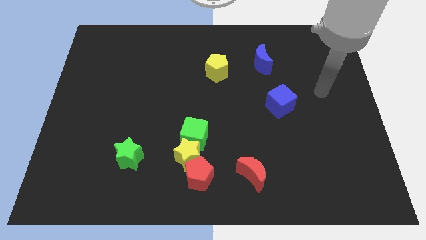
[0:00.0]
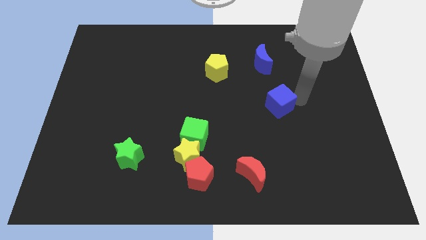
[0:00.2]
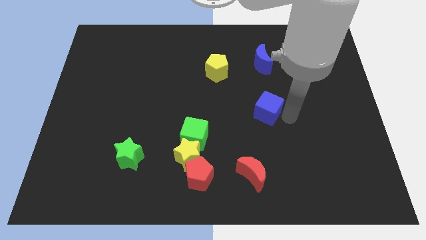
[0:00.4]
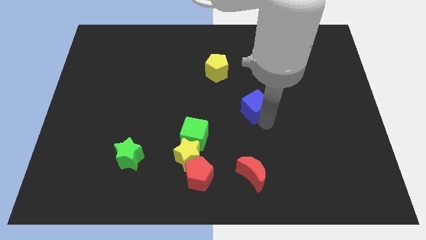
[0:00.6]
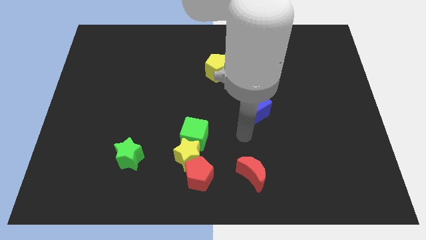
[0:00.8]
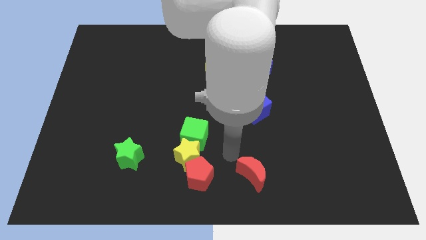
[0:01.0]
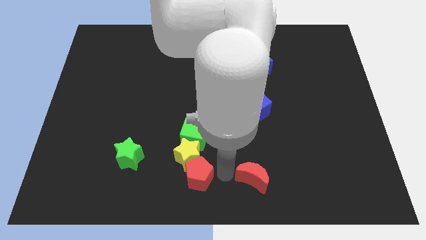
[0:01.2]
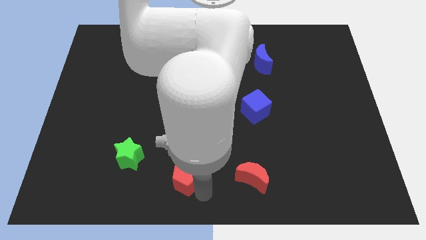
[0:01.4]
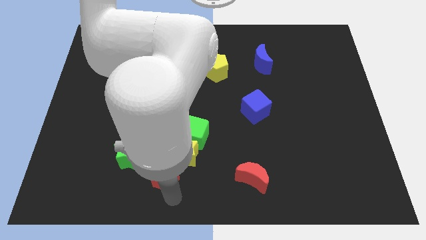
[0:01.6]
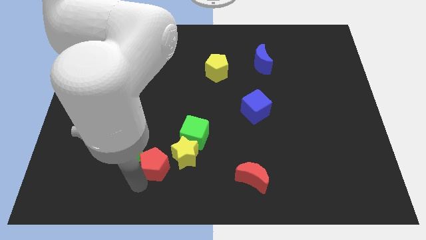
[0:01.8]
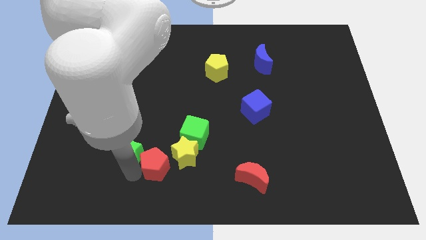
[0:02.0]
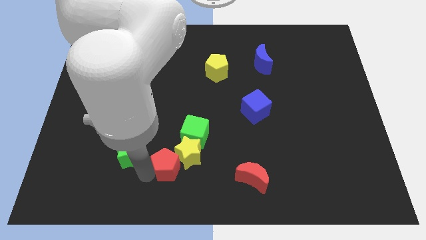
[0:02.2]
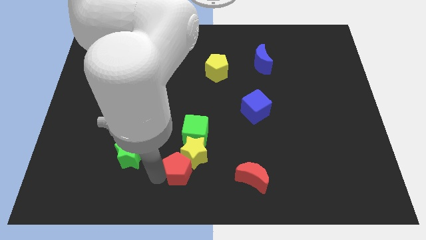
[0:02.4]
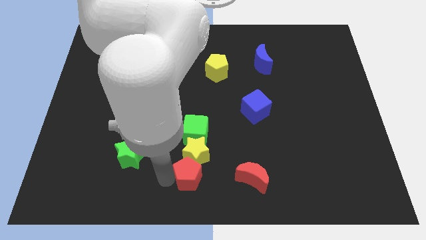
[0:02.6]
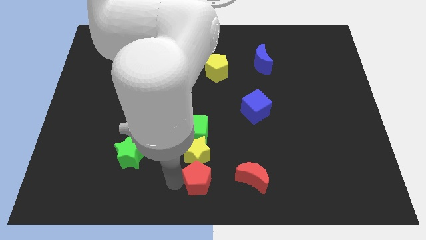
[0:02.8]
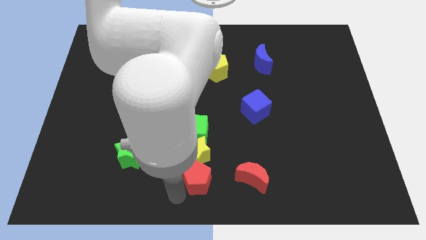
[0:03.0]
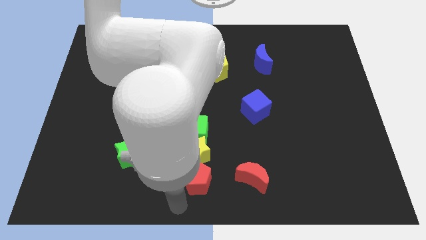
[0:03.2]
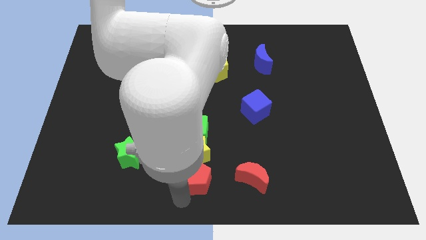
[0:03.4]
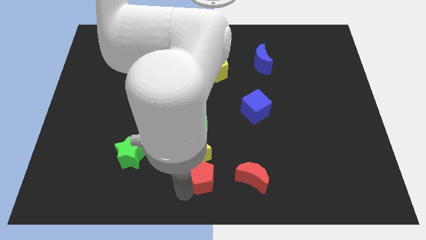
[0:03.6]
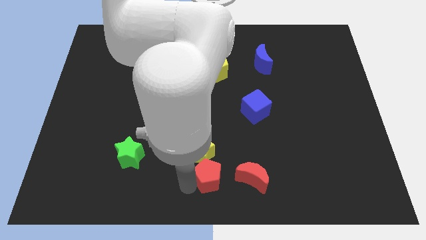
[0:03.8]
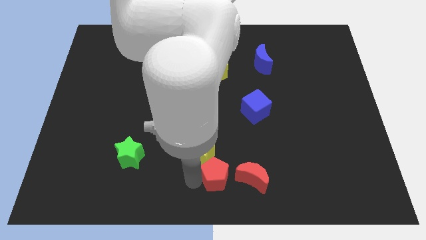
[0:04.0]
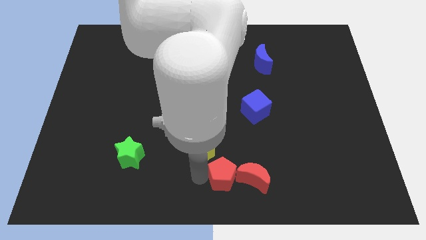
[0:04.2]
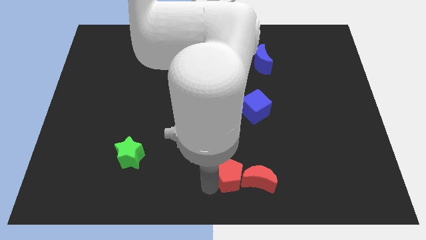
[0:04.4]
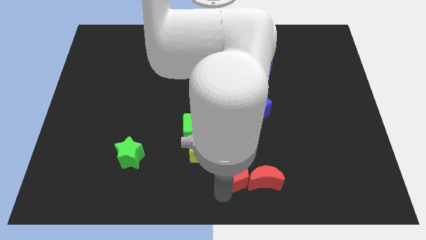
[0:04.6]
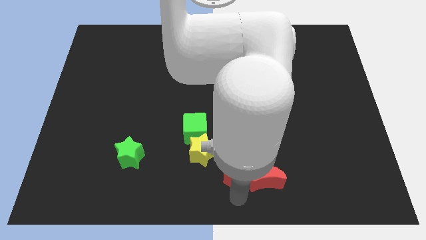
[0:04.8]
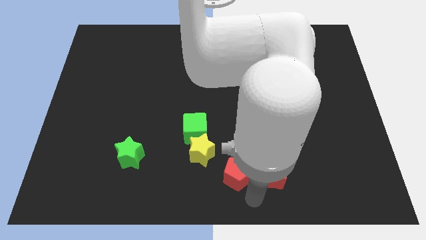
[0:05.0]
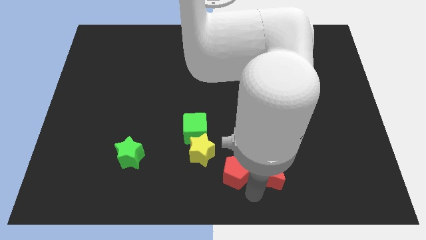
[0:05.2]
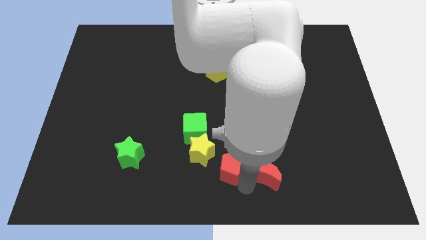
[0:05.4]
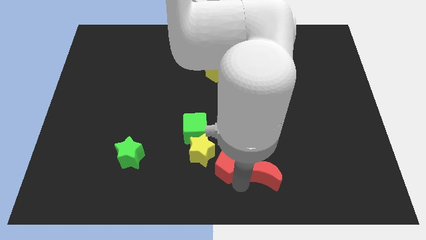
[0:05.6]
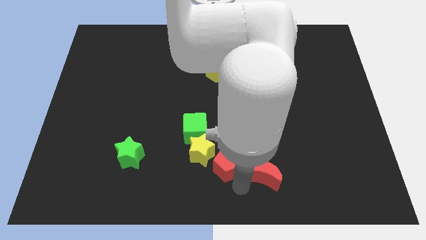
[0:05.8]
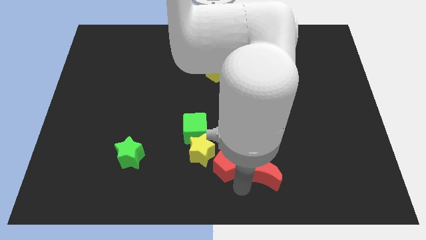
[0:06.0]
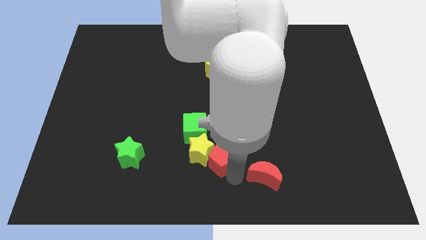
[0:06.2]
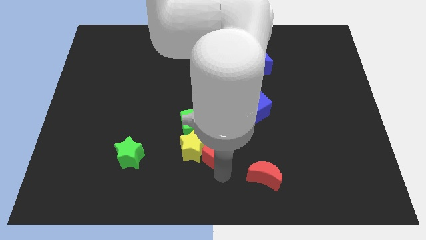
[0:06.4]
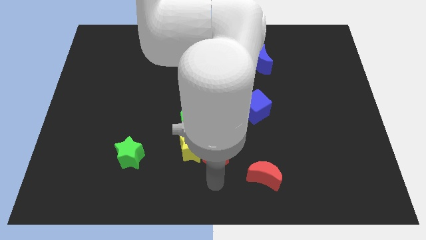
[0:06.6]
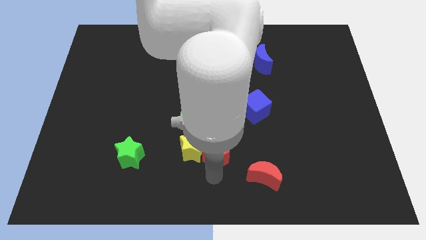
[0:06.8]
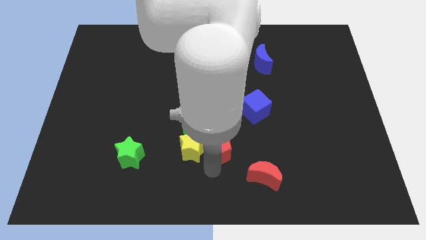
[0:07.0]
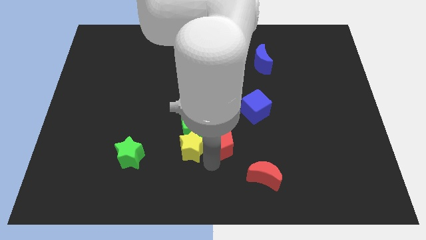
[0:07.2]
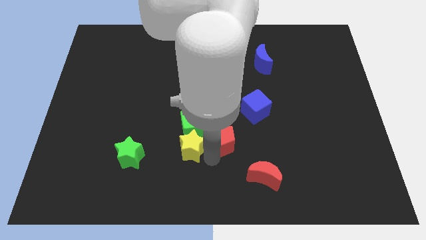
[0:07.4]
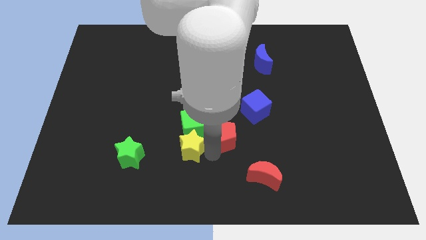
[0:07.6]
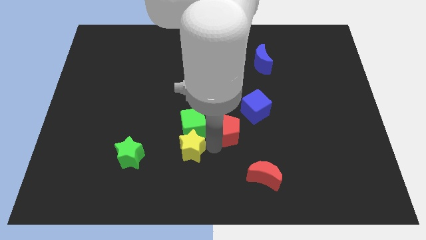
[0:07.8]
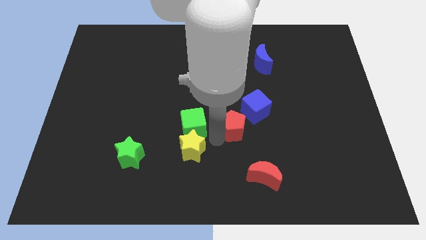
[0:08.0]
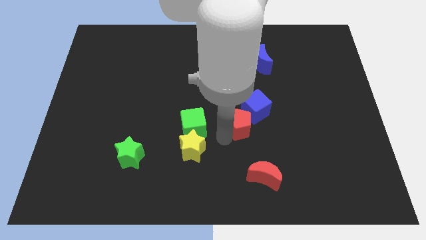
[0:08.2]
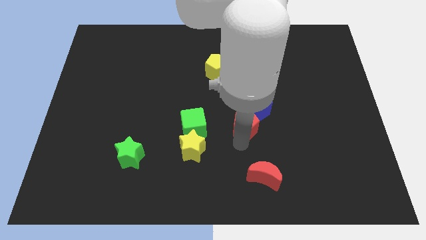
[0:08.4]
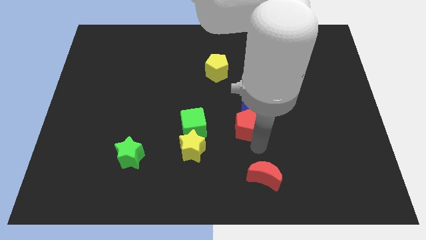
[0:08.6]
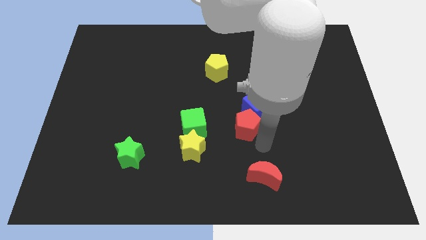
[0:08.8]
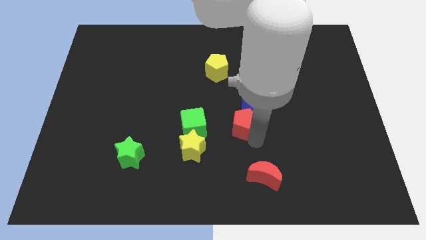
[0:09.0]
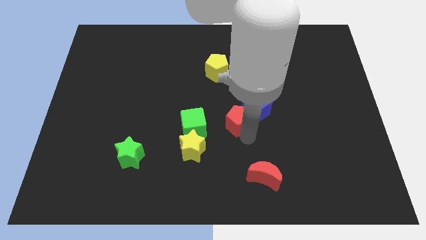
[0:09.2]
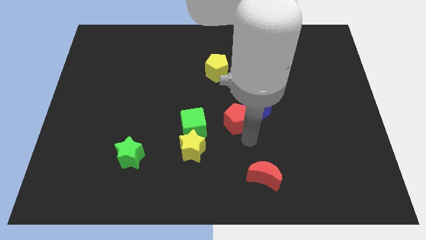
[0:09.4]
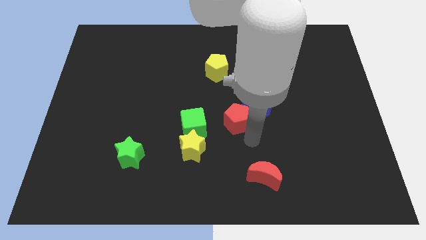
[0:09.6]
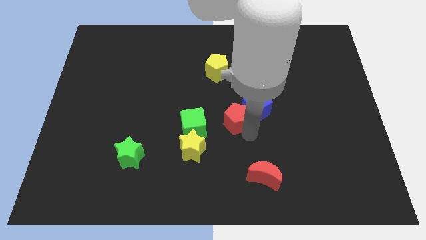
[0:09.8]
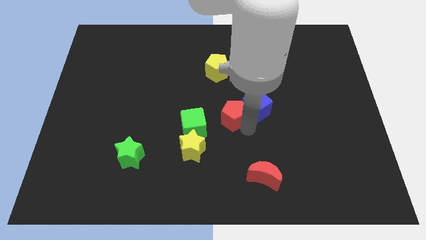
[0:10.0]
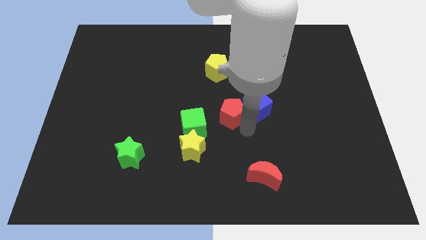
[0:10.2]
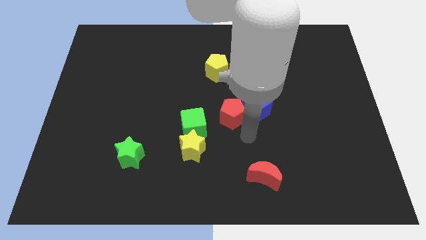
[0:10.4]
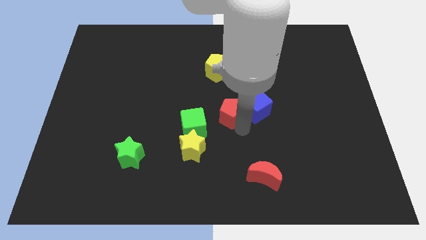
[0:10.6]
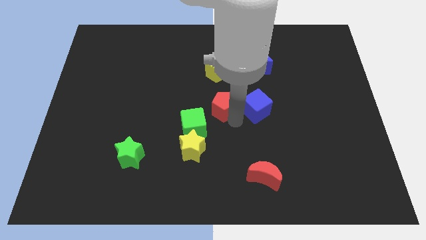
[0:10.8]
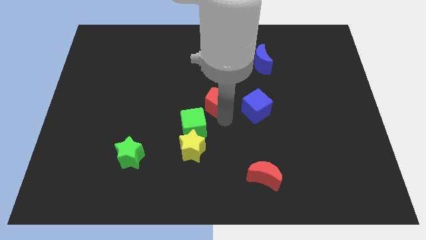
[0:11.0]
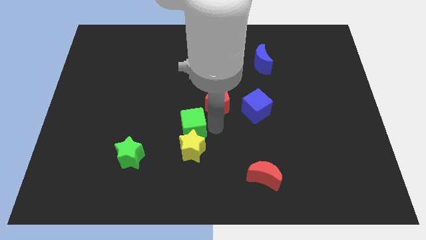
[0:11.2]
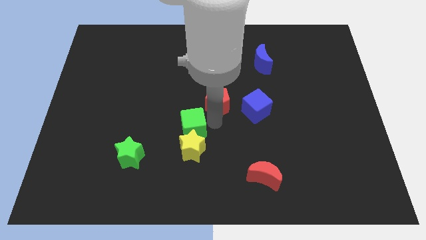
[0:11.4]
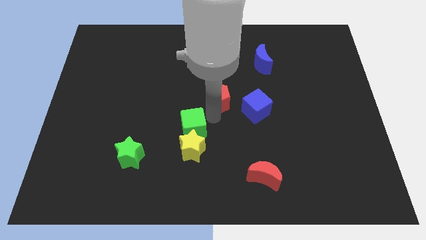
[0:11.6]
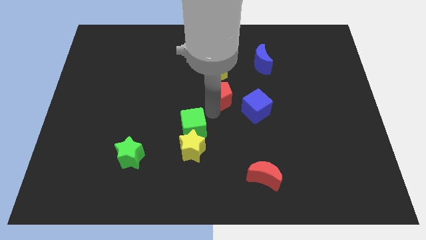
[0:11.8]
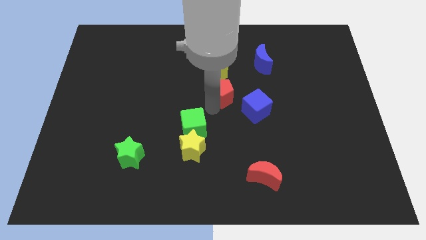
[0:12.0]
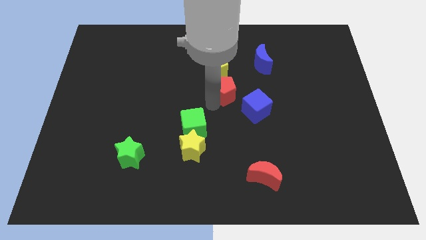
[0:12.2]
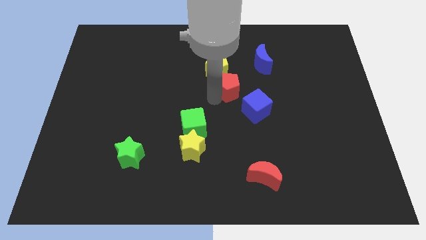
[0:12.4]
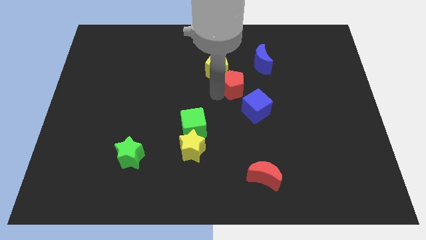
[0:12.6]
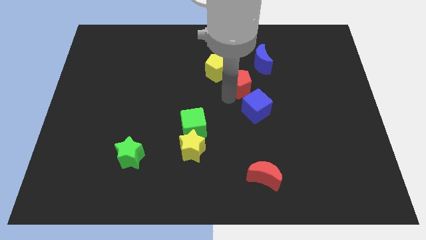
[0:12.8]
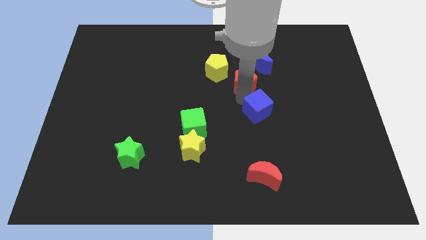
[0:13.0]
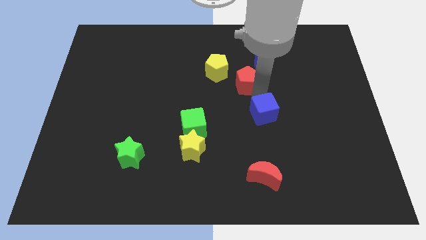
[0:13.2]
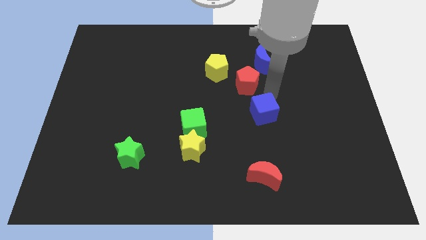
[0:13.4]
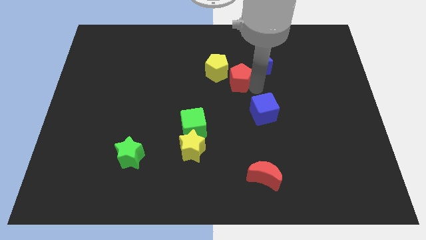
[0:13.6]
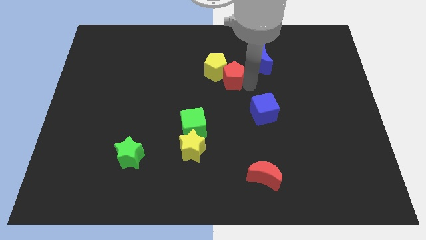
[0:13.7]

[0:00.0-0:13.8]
move the red pentagon close to the yellow pentagon

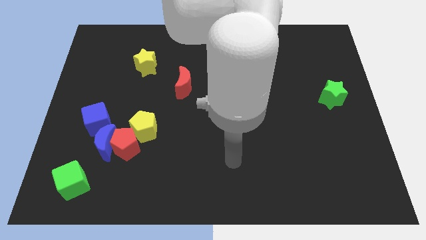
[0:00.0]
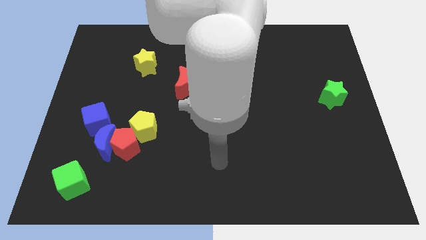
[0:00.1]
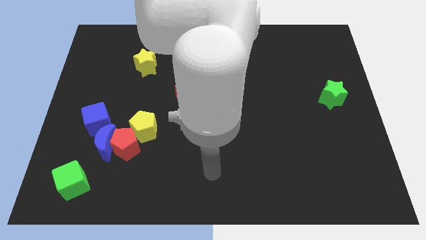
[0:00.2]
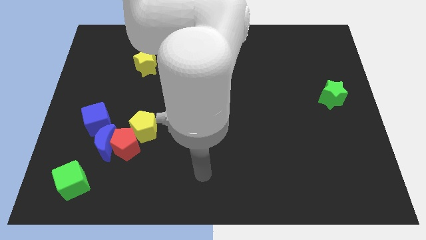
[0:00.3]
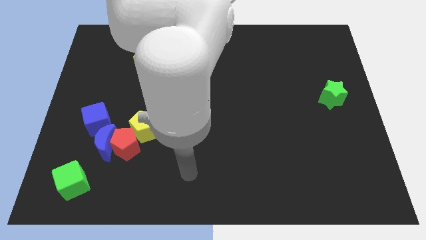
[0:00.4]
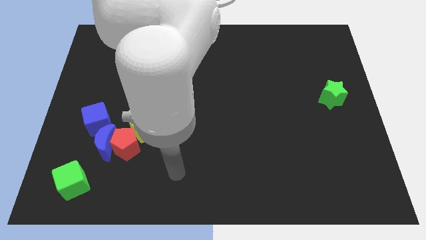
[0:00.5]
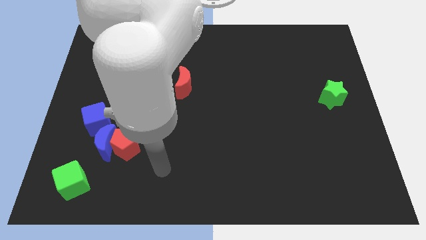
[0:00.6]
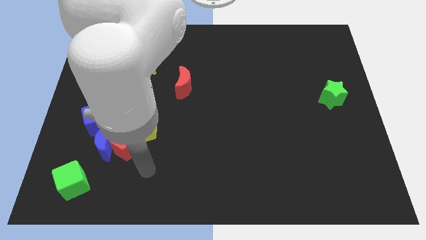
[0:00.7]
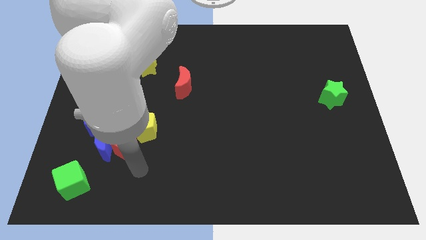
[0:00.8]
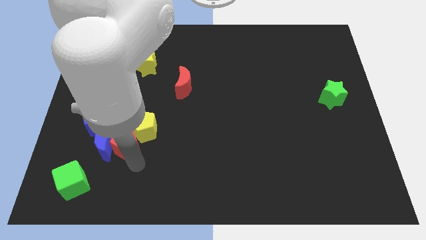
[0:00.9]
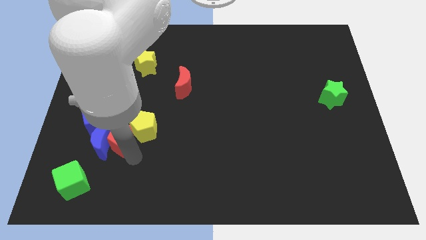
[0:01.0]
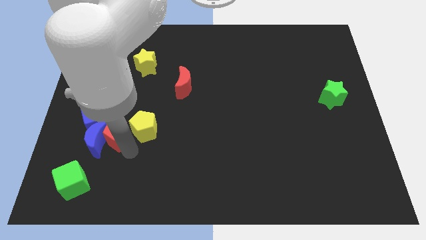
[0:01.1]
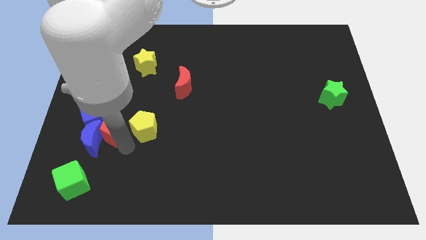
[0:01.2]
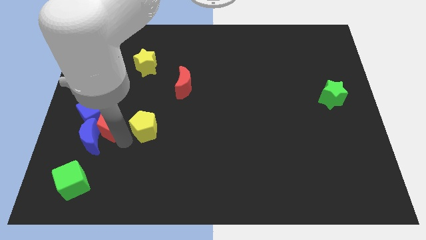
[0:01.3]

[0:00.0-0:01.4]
slide the red pentagon next to the blue cube
